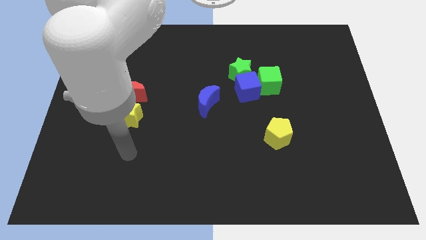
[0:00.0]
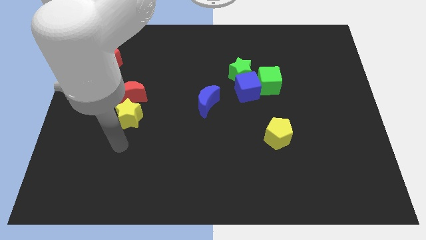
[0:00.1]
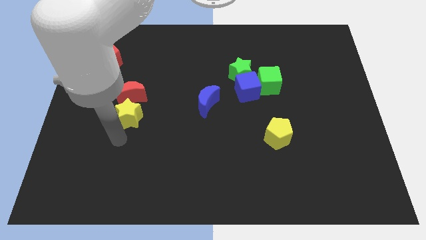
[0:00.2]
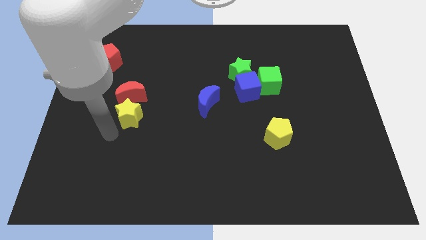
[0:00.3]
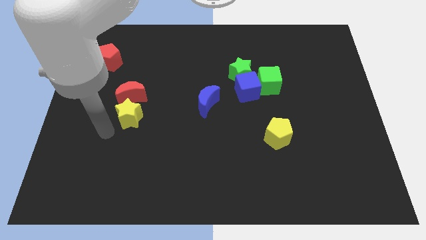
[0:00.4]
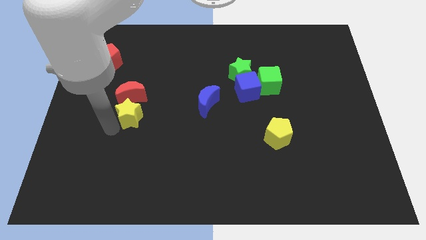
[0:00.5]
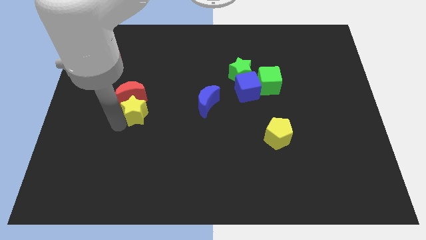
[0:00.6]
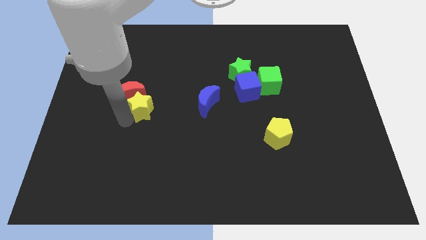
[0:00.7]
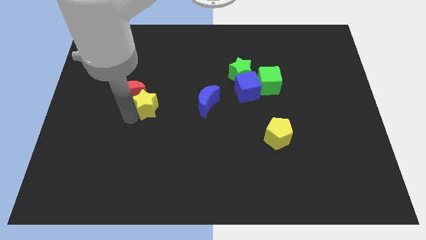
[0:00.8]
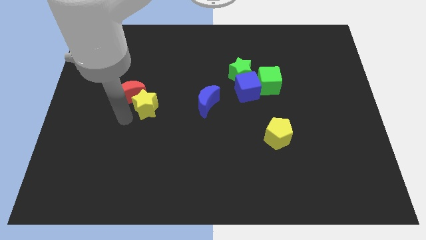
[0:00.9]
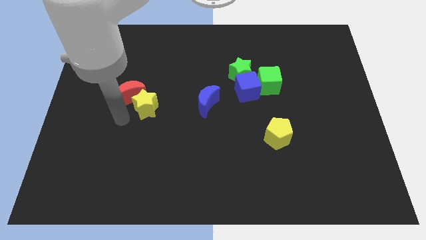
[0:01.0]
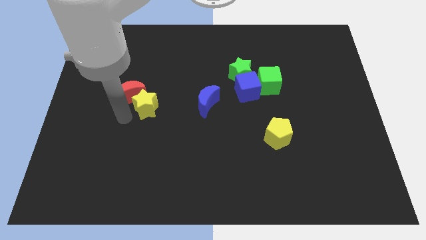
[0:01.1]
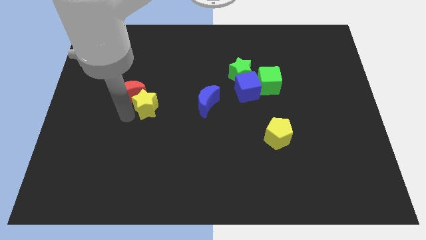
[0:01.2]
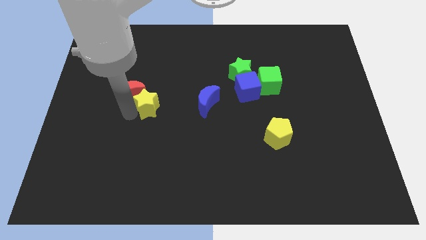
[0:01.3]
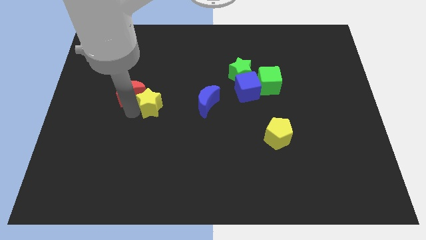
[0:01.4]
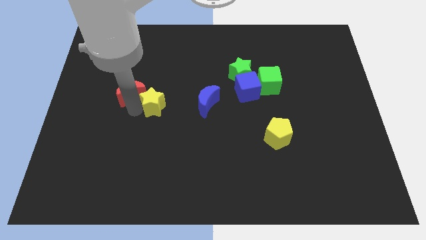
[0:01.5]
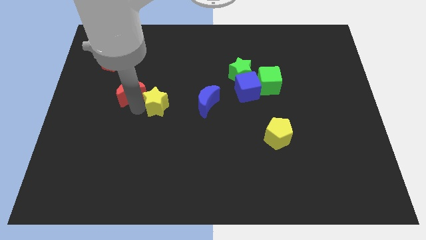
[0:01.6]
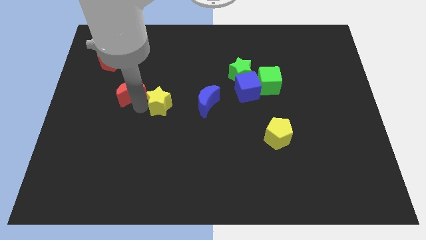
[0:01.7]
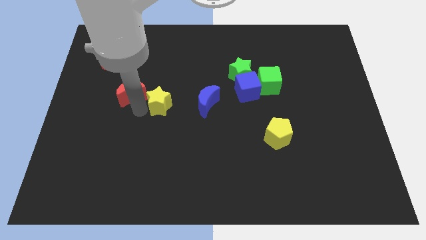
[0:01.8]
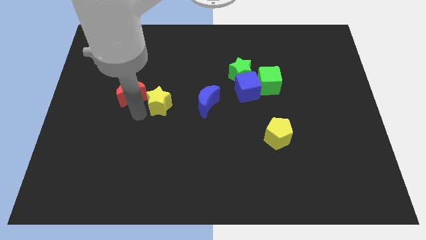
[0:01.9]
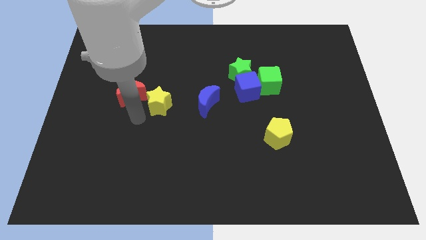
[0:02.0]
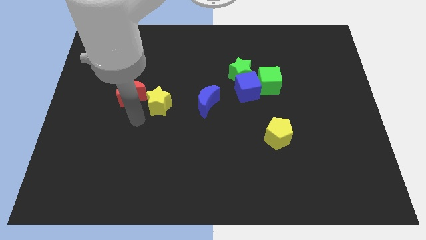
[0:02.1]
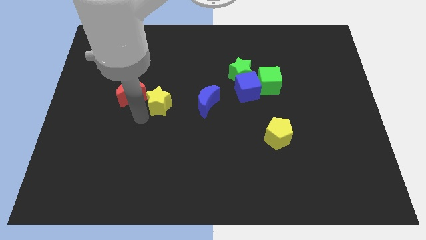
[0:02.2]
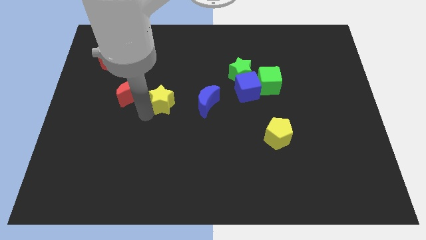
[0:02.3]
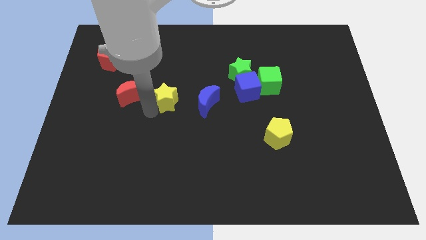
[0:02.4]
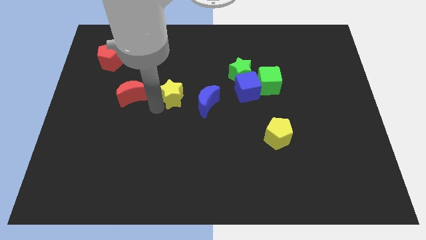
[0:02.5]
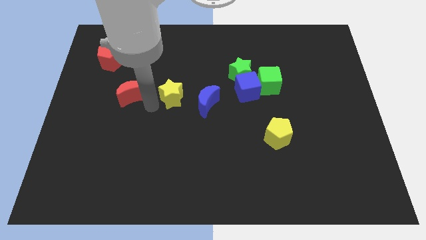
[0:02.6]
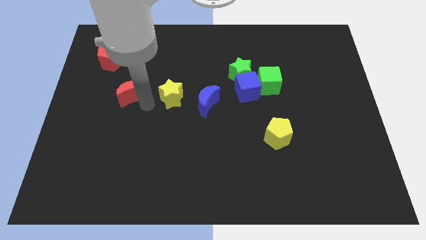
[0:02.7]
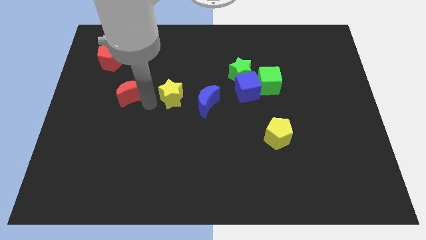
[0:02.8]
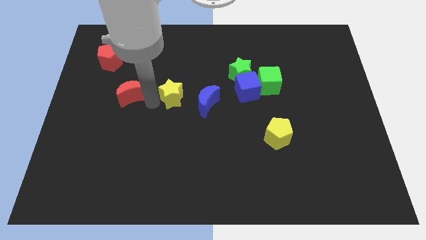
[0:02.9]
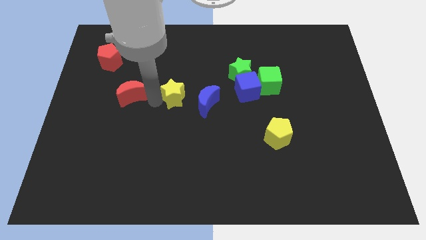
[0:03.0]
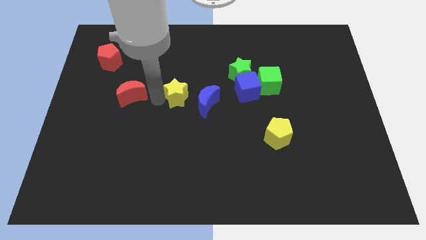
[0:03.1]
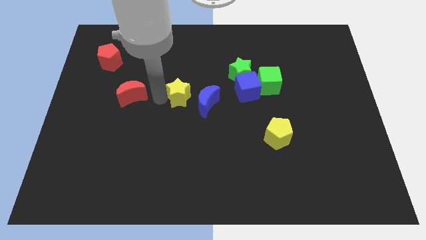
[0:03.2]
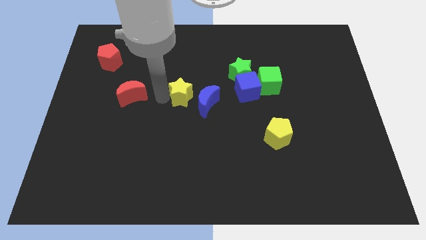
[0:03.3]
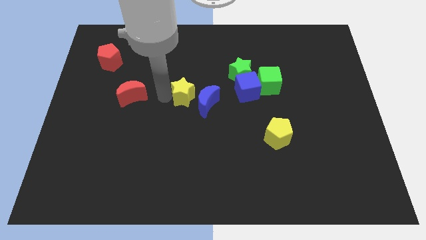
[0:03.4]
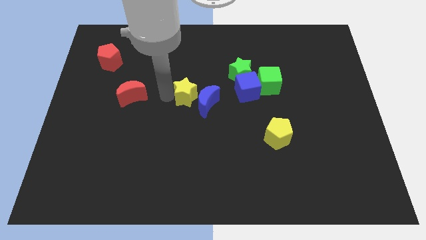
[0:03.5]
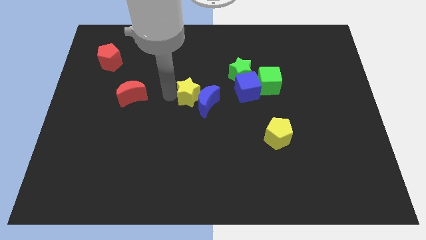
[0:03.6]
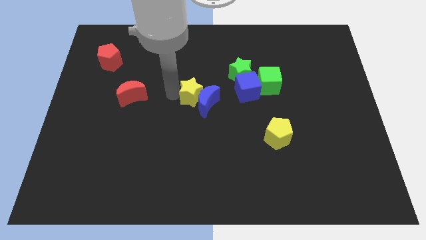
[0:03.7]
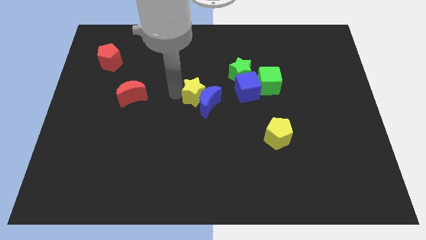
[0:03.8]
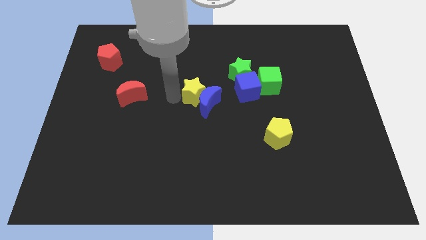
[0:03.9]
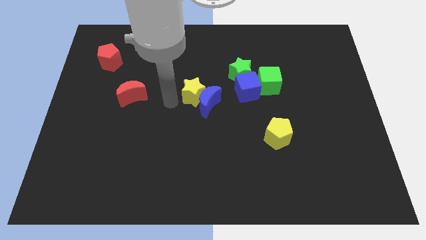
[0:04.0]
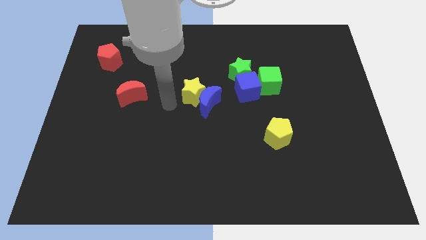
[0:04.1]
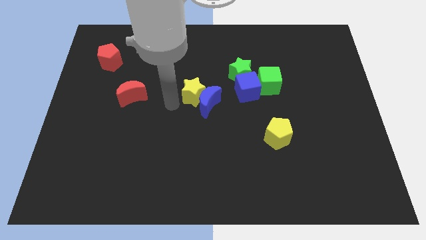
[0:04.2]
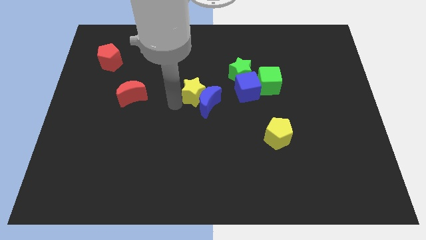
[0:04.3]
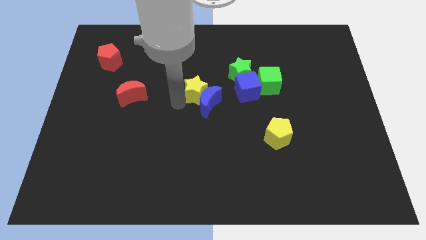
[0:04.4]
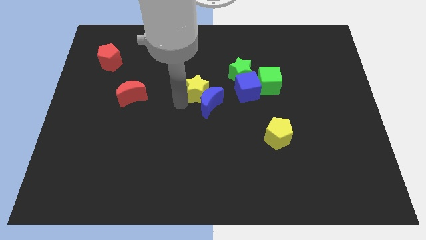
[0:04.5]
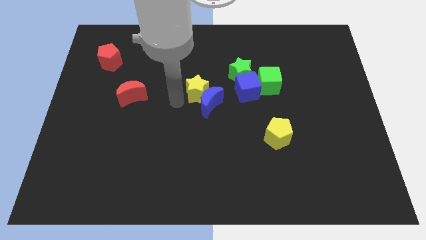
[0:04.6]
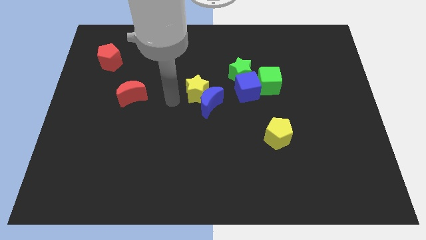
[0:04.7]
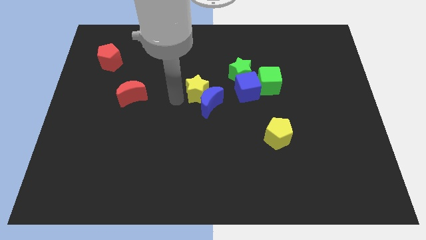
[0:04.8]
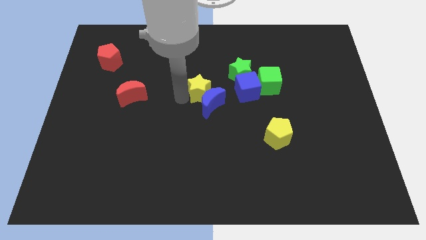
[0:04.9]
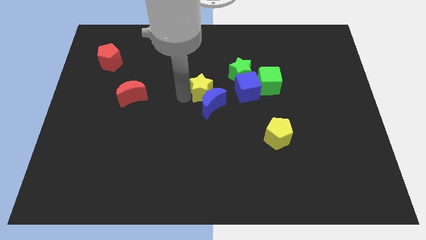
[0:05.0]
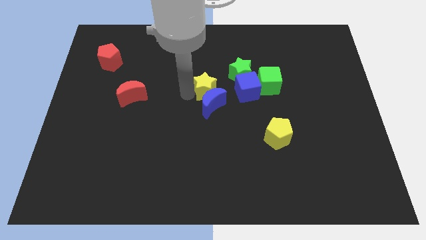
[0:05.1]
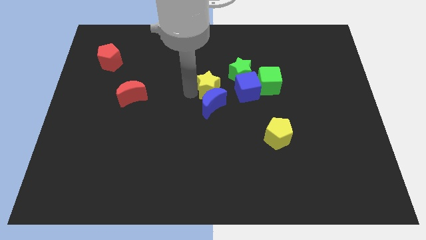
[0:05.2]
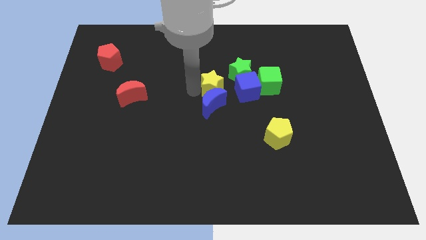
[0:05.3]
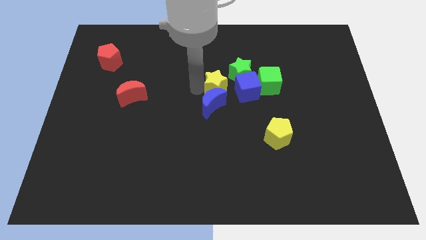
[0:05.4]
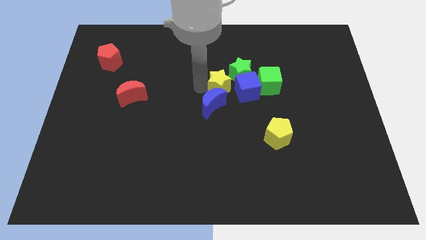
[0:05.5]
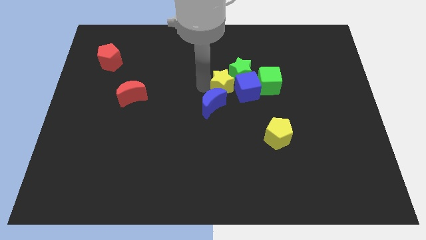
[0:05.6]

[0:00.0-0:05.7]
push the yellow star to the blue cube

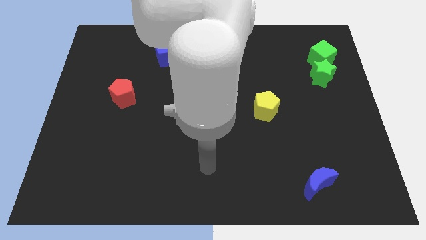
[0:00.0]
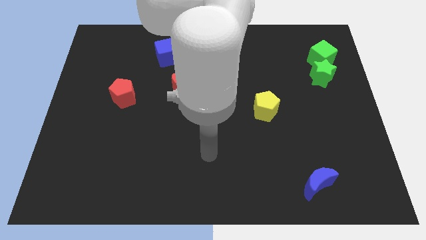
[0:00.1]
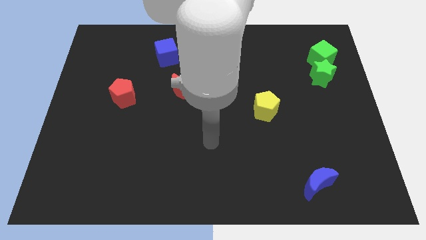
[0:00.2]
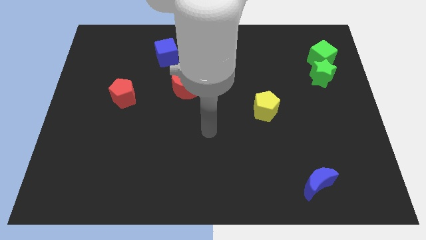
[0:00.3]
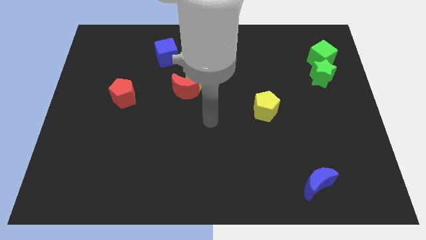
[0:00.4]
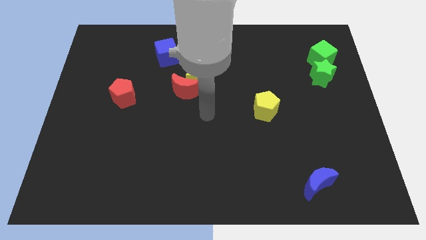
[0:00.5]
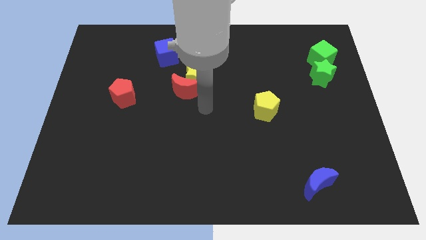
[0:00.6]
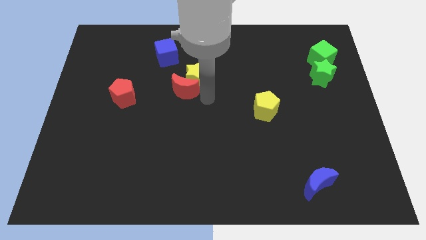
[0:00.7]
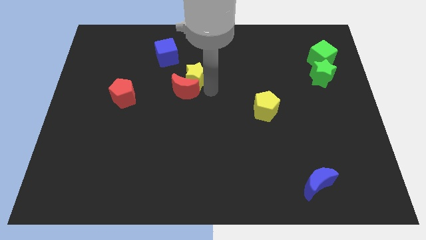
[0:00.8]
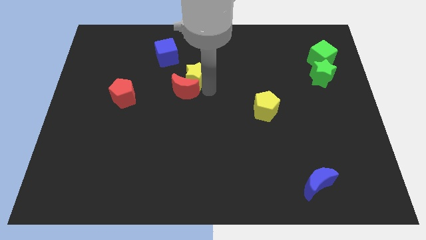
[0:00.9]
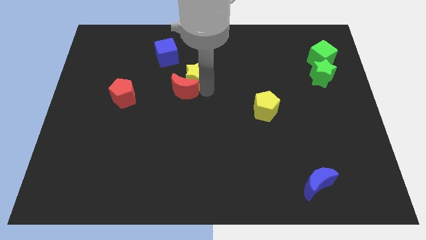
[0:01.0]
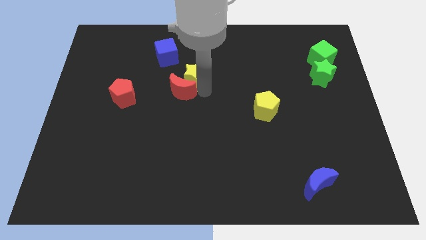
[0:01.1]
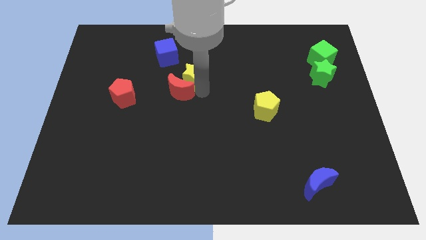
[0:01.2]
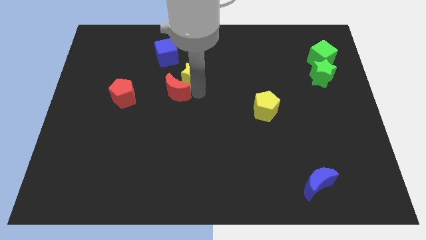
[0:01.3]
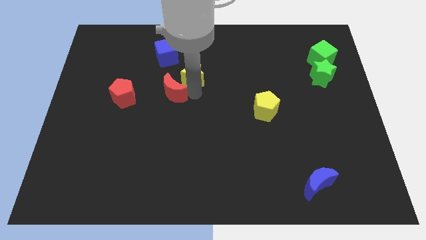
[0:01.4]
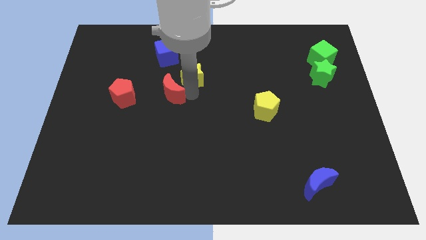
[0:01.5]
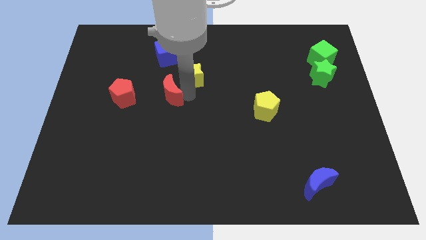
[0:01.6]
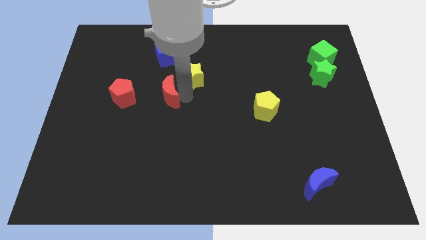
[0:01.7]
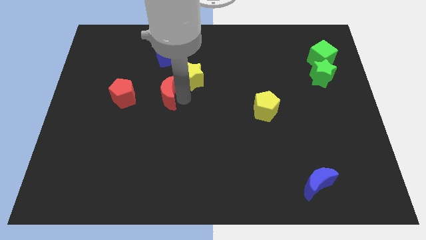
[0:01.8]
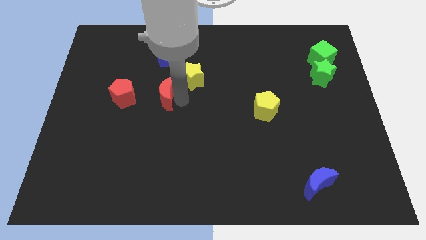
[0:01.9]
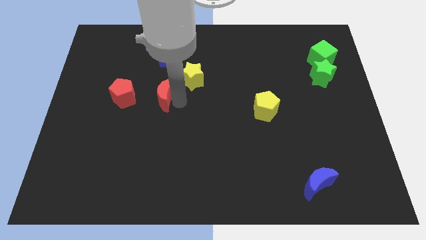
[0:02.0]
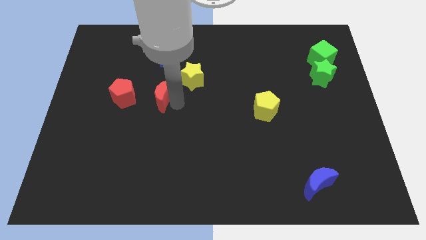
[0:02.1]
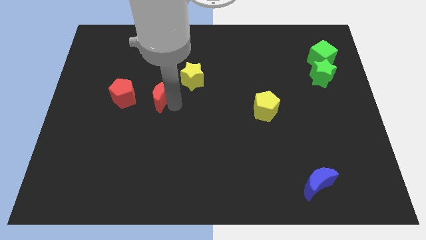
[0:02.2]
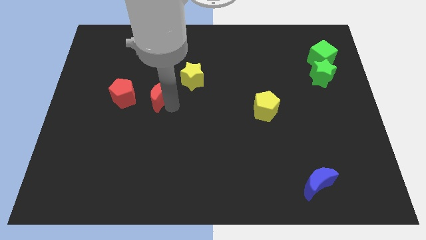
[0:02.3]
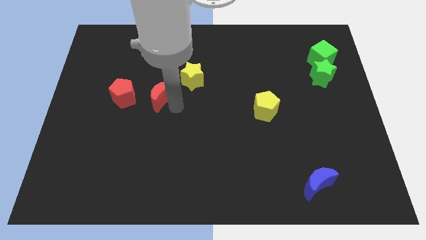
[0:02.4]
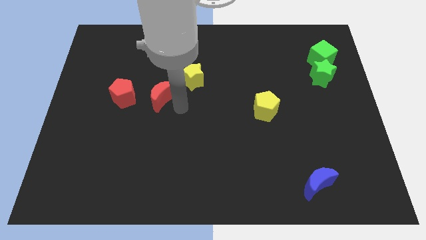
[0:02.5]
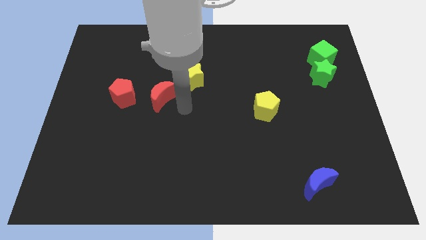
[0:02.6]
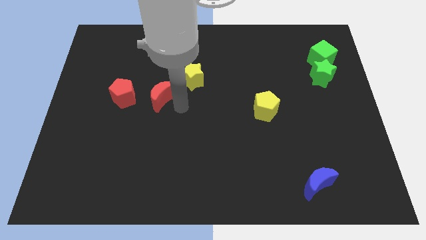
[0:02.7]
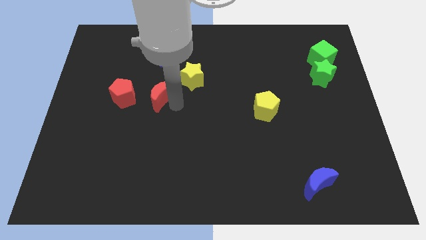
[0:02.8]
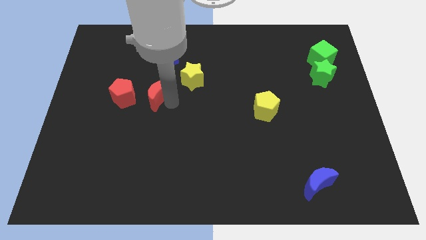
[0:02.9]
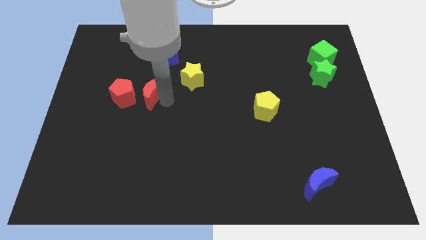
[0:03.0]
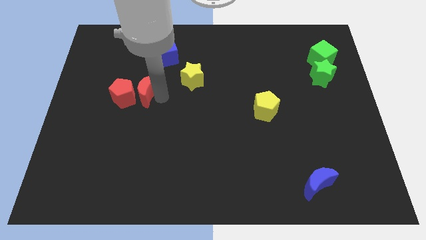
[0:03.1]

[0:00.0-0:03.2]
slide the red moon towards the red pentagon
